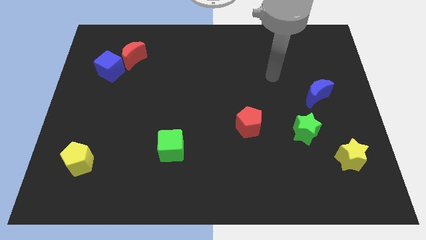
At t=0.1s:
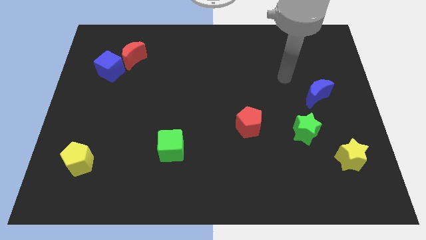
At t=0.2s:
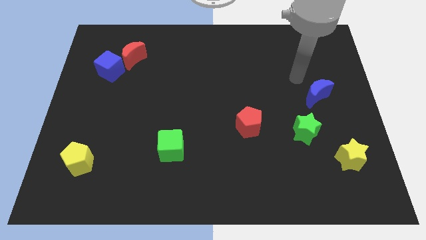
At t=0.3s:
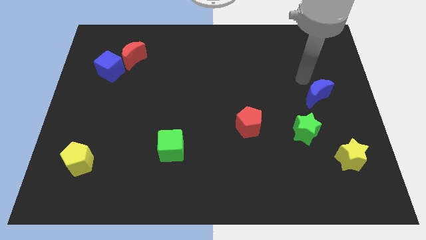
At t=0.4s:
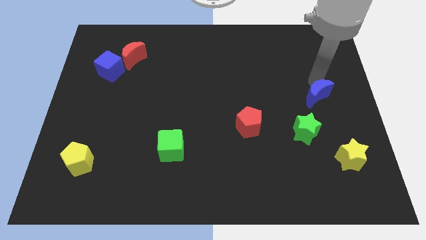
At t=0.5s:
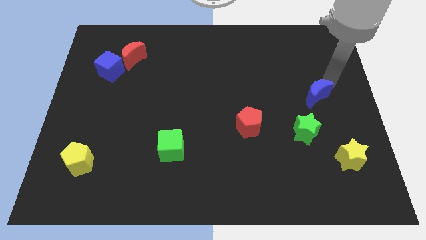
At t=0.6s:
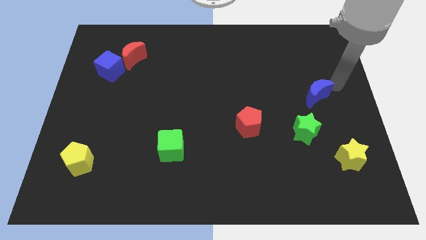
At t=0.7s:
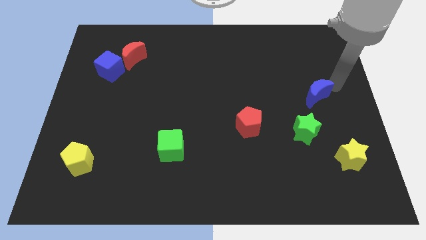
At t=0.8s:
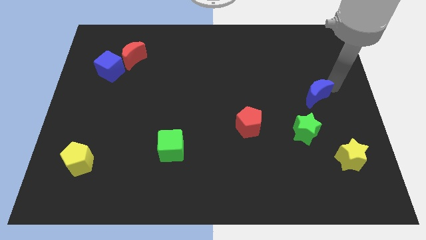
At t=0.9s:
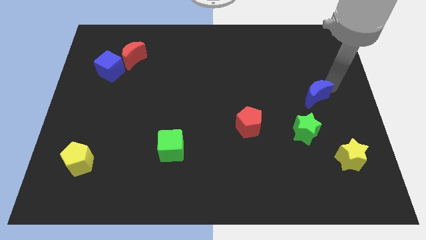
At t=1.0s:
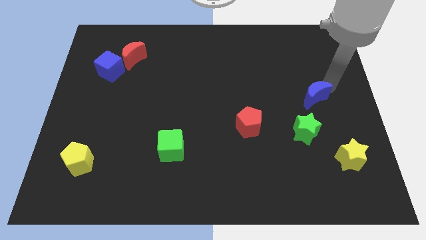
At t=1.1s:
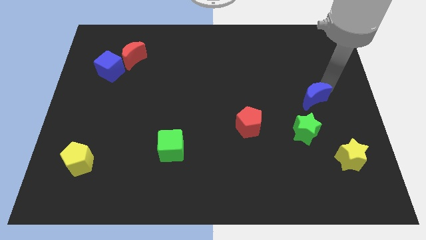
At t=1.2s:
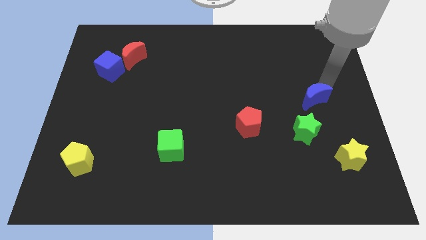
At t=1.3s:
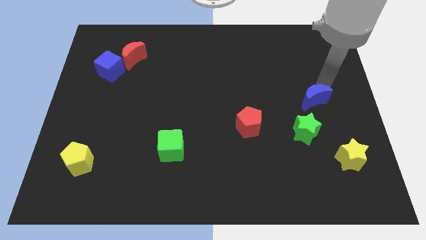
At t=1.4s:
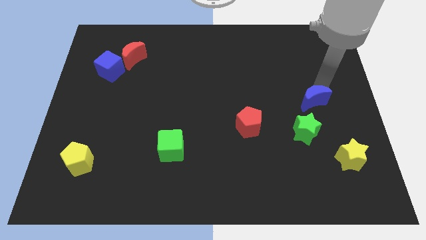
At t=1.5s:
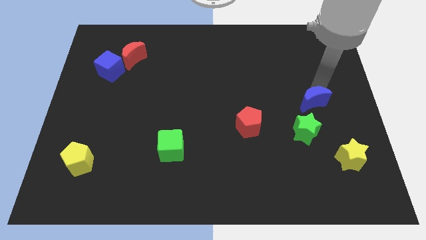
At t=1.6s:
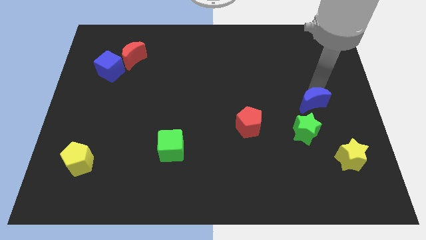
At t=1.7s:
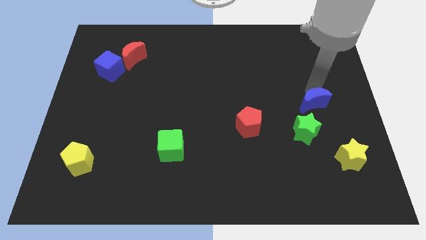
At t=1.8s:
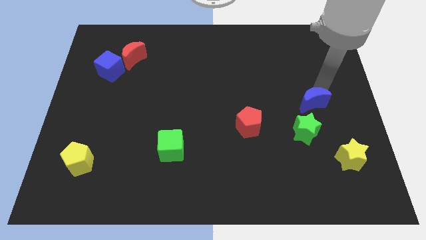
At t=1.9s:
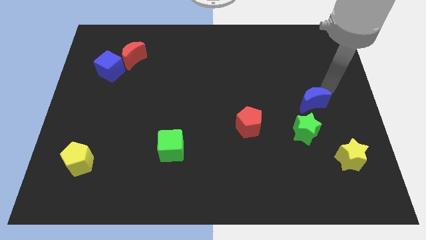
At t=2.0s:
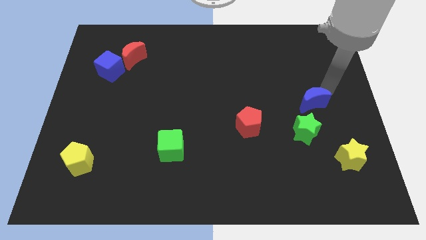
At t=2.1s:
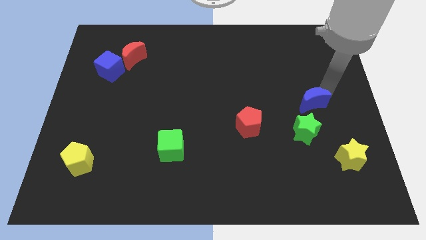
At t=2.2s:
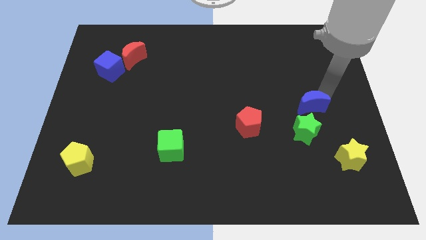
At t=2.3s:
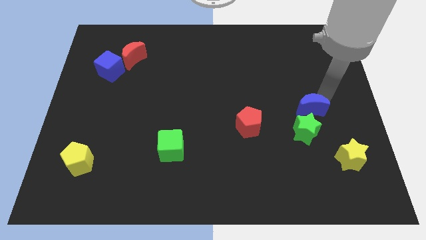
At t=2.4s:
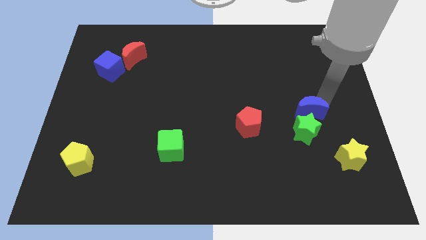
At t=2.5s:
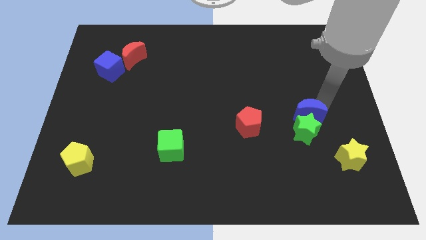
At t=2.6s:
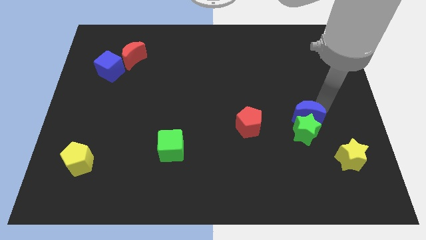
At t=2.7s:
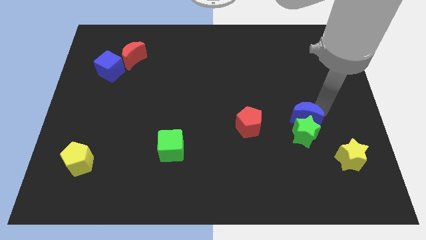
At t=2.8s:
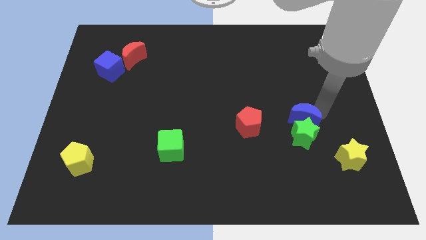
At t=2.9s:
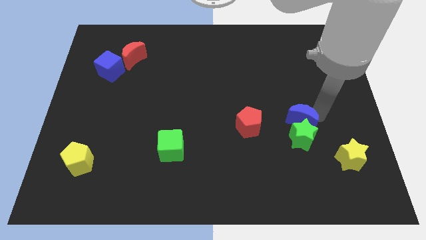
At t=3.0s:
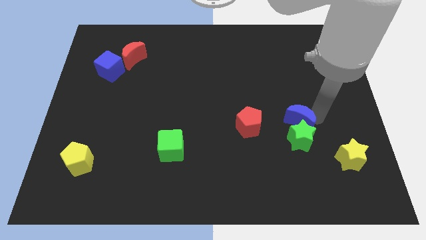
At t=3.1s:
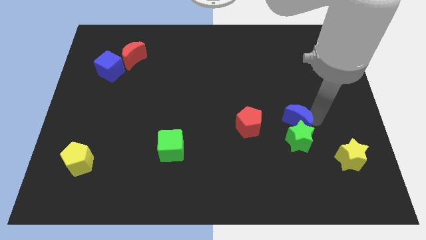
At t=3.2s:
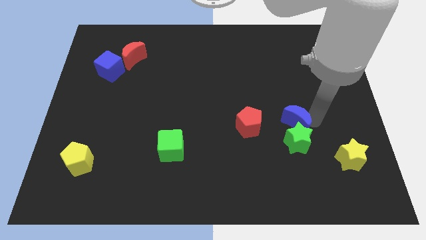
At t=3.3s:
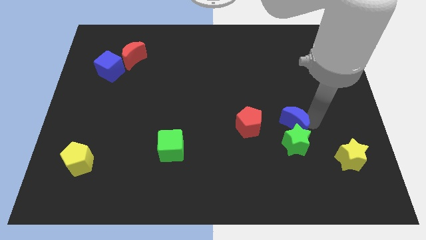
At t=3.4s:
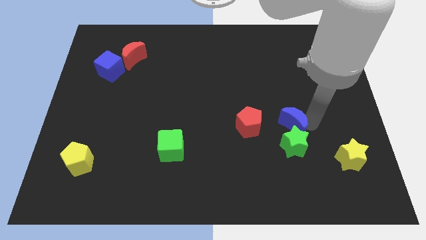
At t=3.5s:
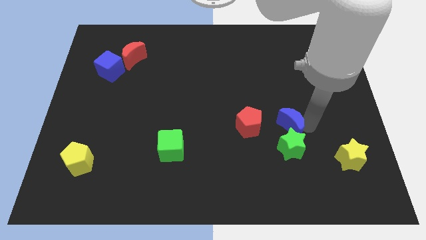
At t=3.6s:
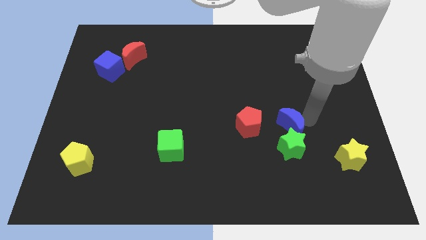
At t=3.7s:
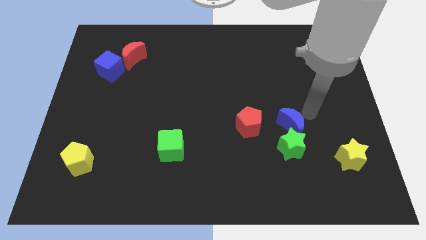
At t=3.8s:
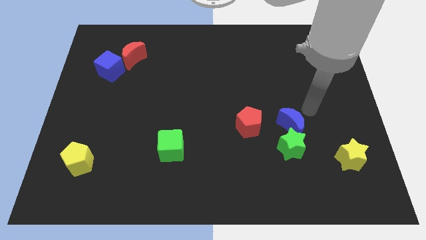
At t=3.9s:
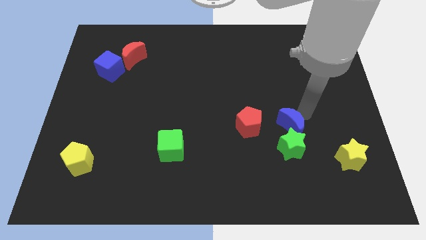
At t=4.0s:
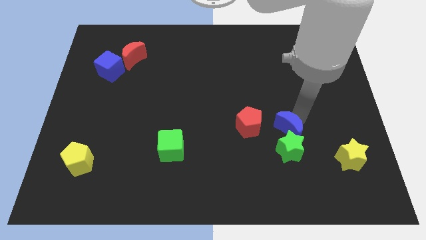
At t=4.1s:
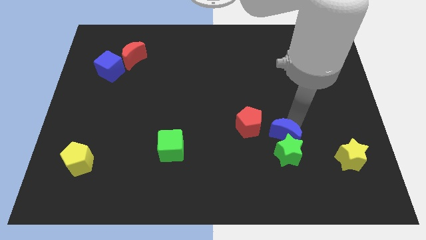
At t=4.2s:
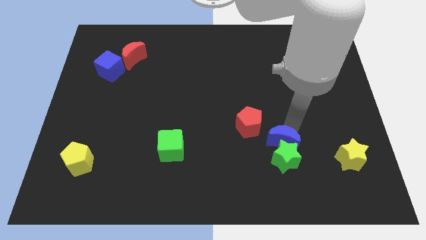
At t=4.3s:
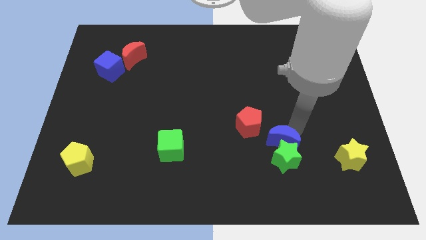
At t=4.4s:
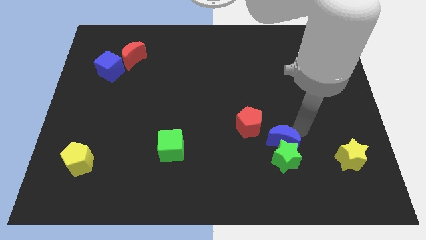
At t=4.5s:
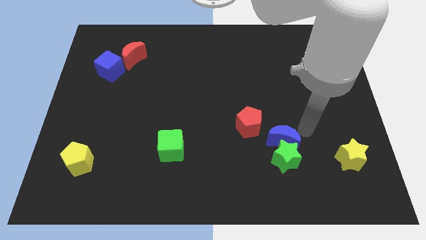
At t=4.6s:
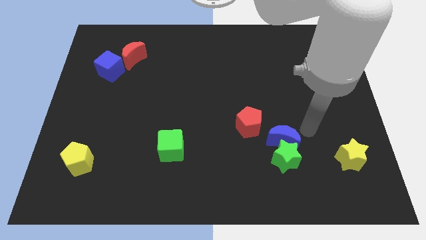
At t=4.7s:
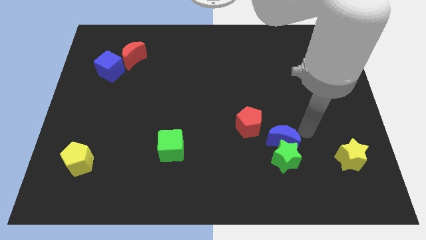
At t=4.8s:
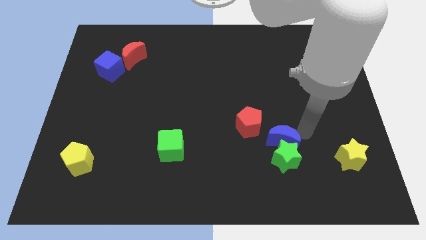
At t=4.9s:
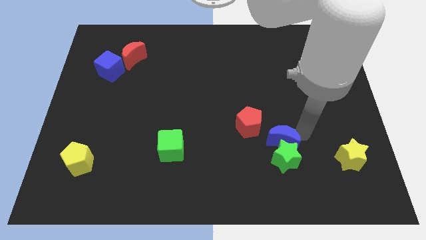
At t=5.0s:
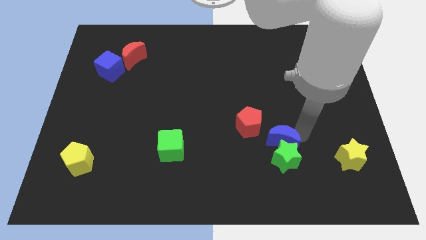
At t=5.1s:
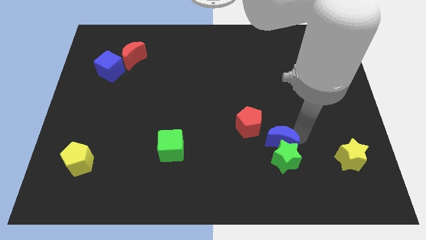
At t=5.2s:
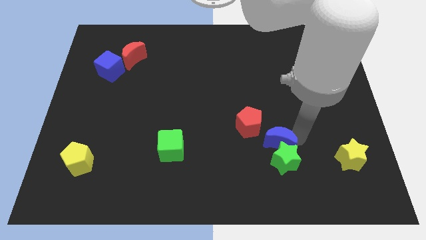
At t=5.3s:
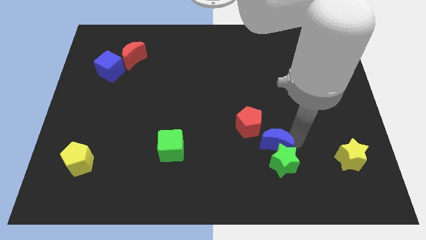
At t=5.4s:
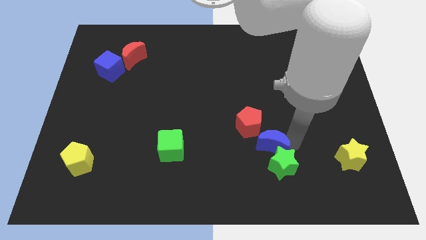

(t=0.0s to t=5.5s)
slide the blue moon below the red pentagon

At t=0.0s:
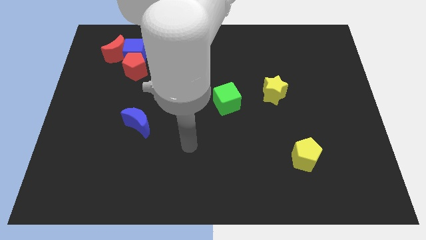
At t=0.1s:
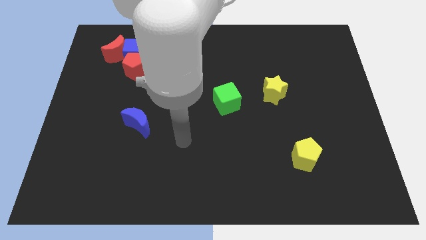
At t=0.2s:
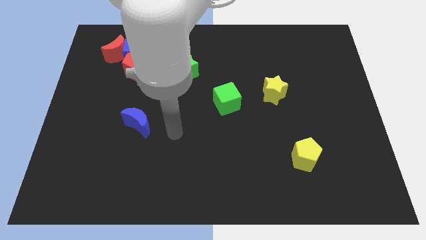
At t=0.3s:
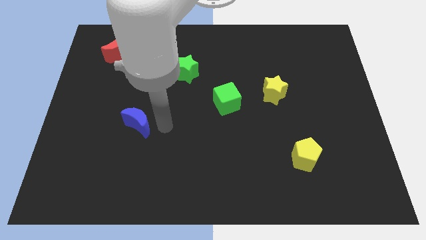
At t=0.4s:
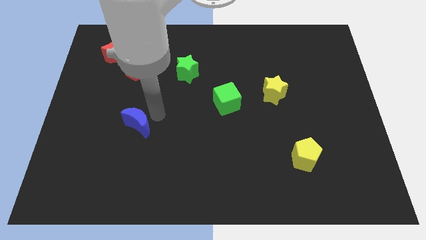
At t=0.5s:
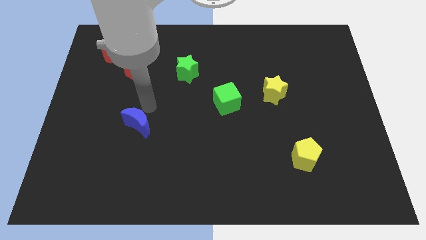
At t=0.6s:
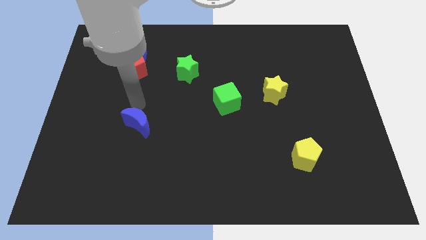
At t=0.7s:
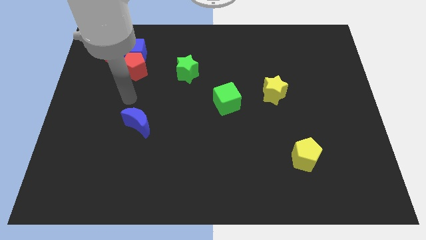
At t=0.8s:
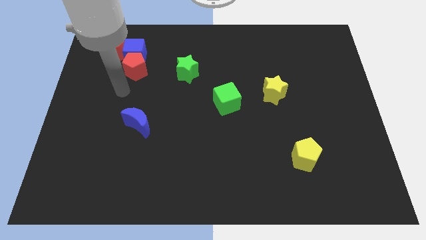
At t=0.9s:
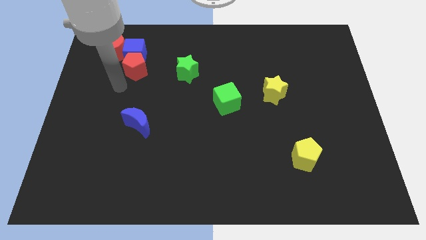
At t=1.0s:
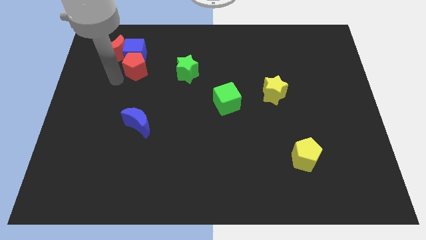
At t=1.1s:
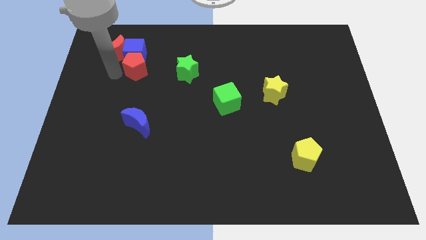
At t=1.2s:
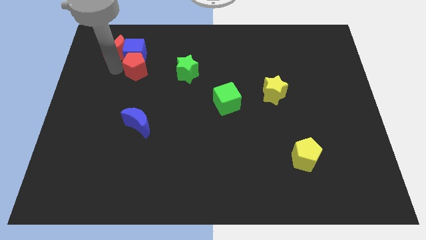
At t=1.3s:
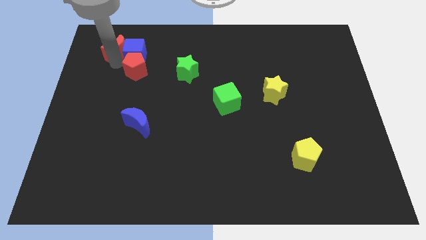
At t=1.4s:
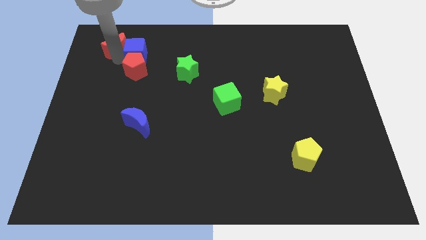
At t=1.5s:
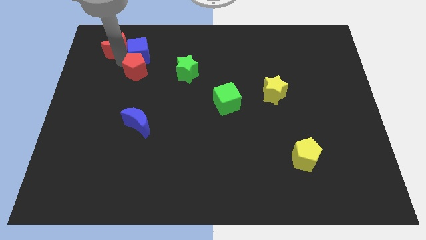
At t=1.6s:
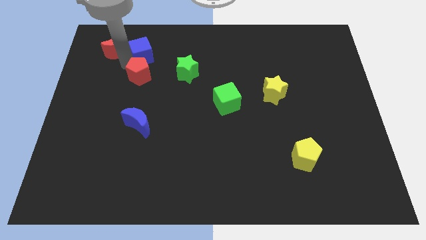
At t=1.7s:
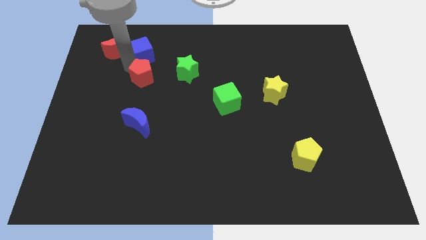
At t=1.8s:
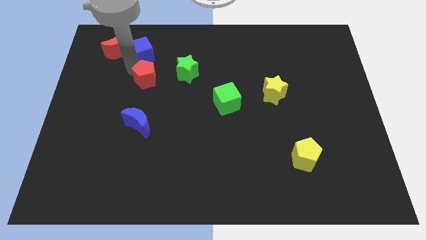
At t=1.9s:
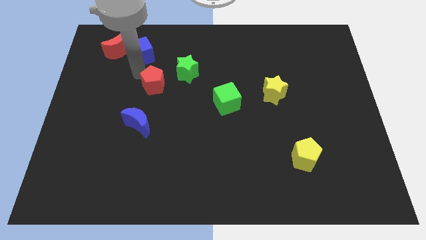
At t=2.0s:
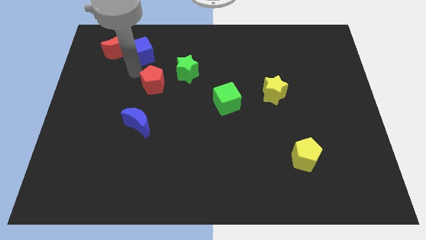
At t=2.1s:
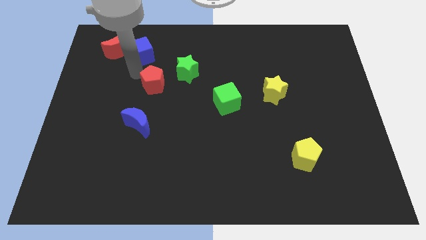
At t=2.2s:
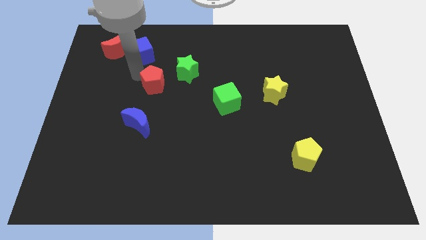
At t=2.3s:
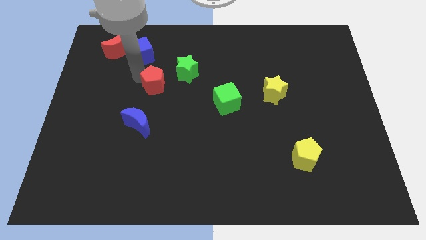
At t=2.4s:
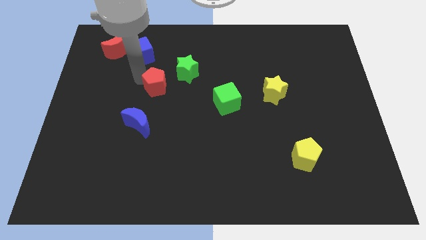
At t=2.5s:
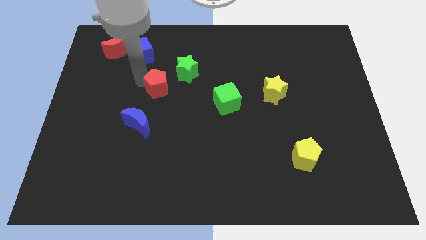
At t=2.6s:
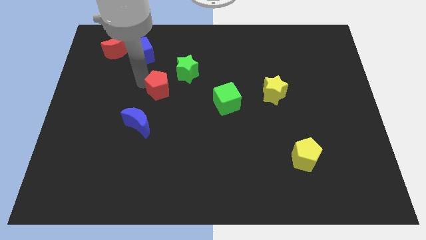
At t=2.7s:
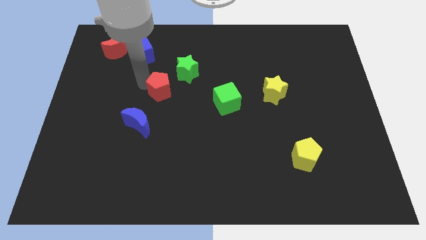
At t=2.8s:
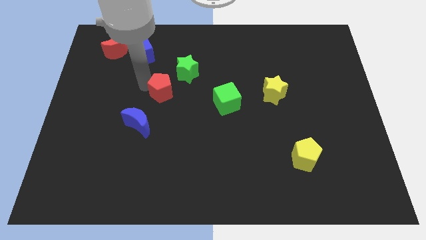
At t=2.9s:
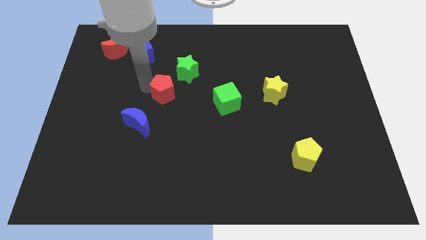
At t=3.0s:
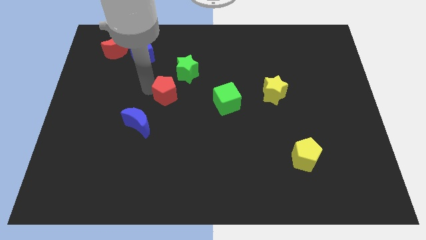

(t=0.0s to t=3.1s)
move the red pentagon below the green star
